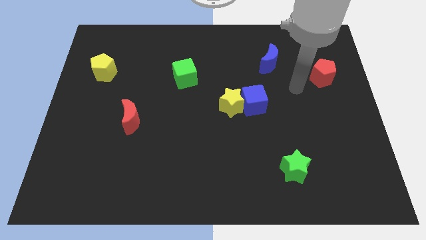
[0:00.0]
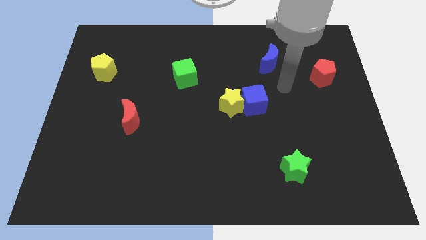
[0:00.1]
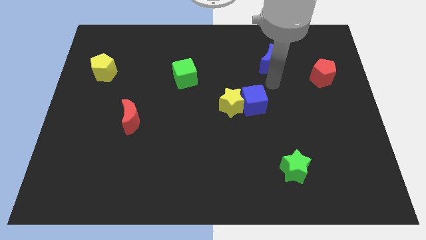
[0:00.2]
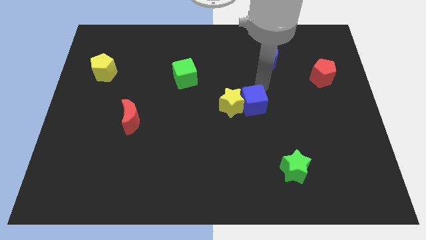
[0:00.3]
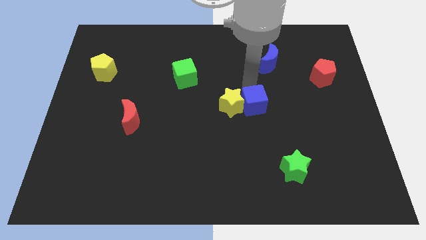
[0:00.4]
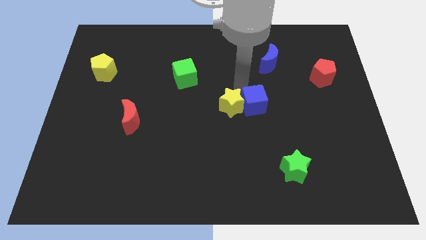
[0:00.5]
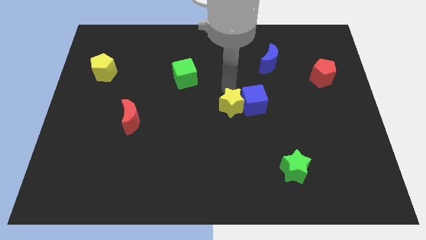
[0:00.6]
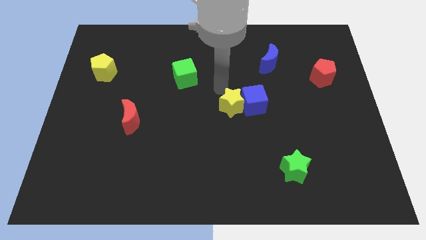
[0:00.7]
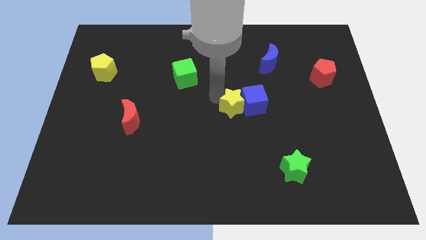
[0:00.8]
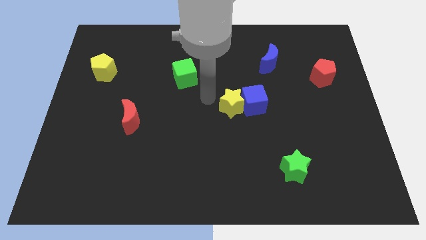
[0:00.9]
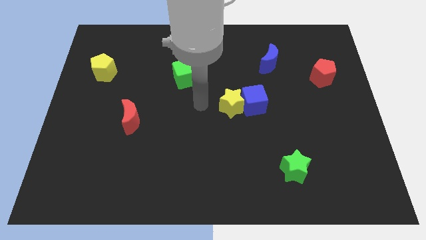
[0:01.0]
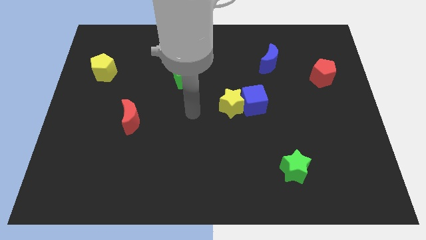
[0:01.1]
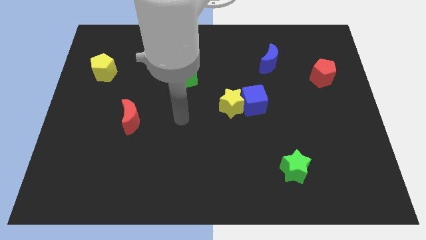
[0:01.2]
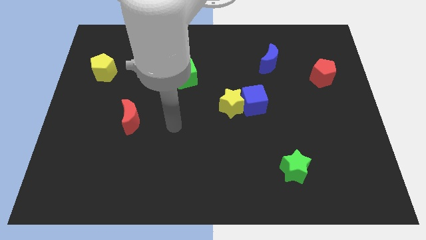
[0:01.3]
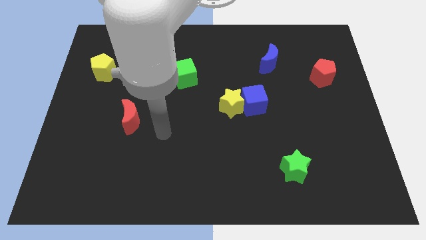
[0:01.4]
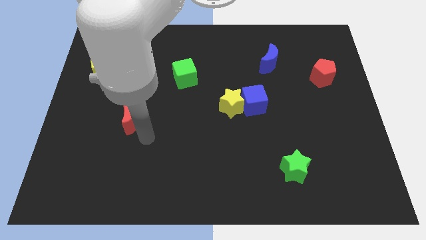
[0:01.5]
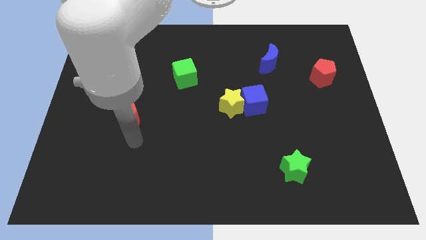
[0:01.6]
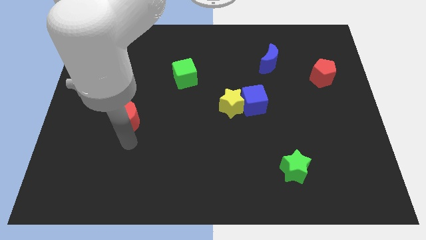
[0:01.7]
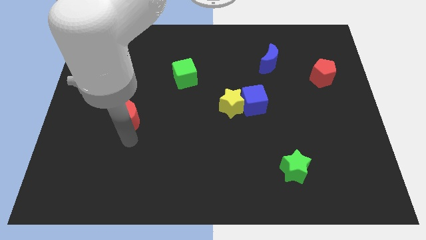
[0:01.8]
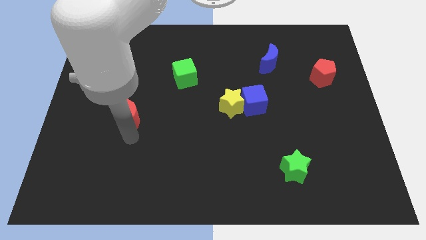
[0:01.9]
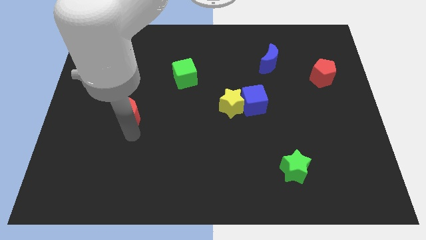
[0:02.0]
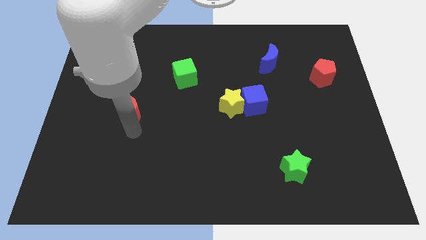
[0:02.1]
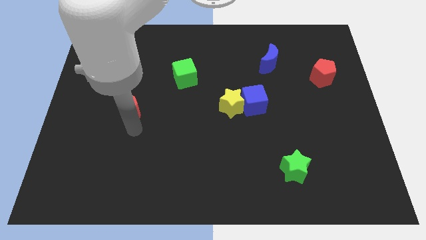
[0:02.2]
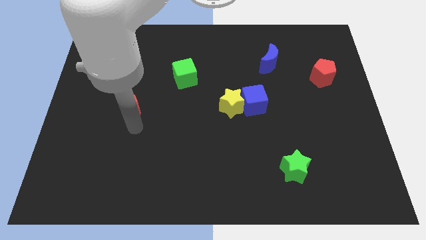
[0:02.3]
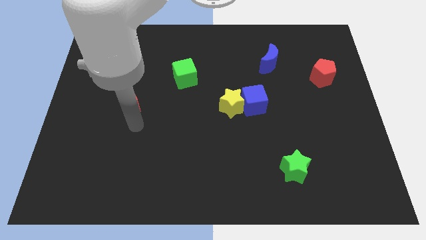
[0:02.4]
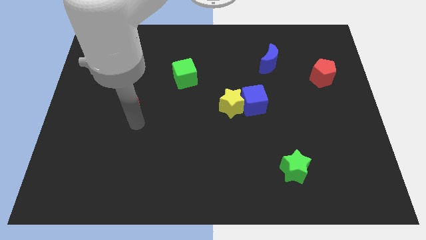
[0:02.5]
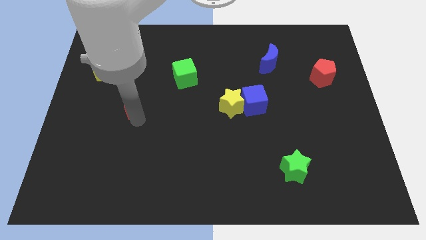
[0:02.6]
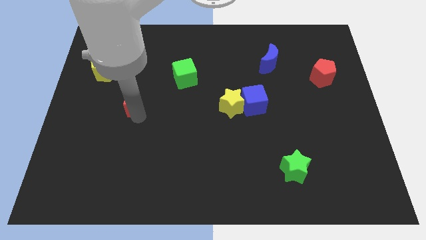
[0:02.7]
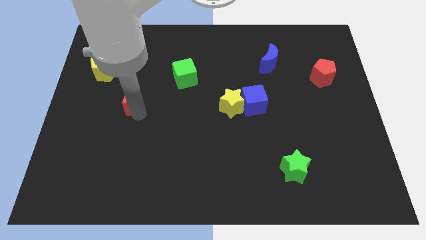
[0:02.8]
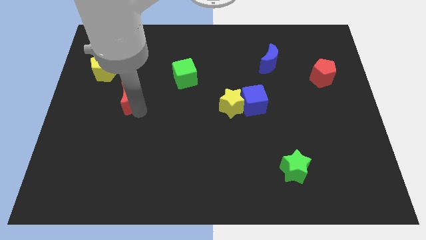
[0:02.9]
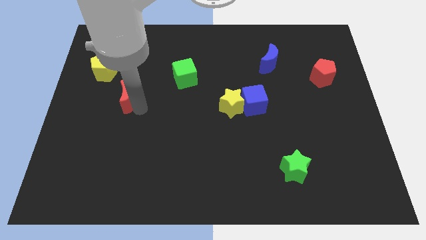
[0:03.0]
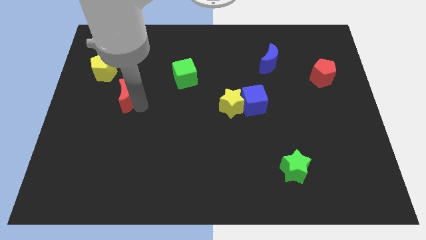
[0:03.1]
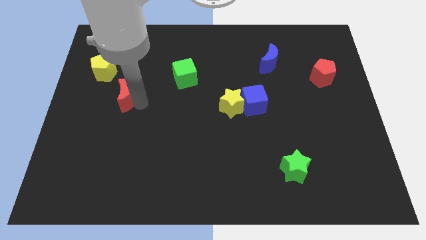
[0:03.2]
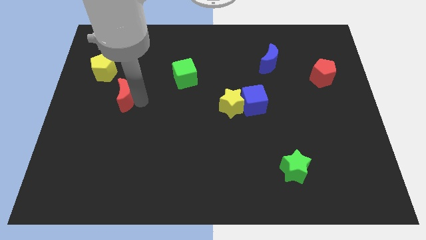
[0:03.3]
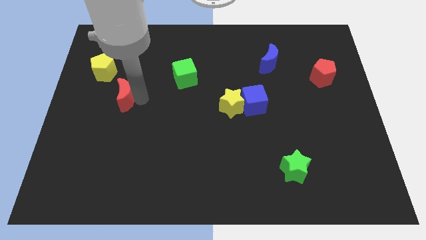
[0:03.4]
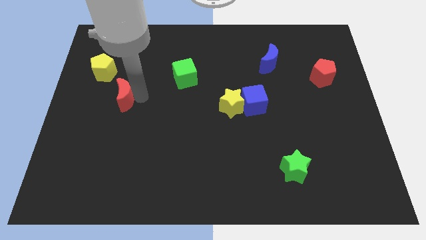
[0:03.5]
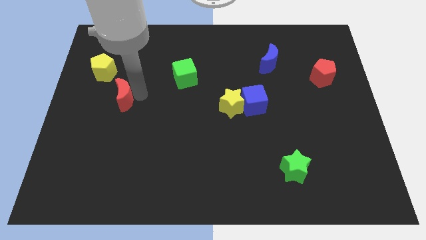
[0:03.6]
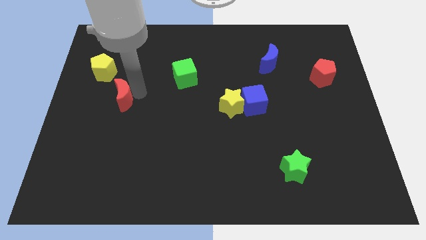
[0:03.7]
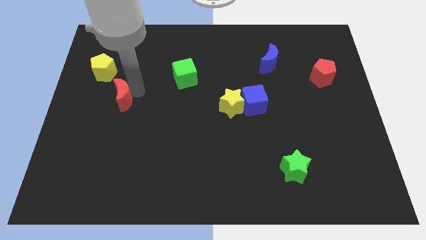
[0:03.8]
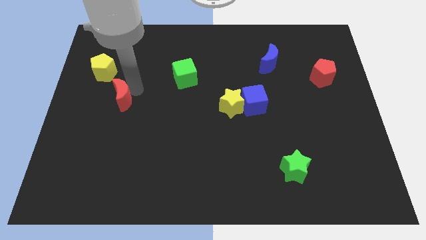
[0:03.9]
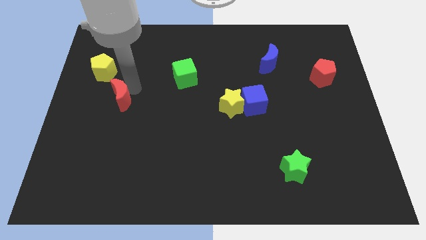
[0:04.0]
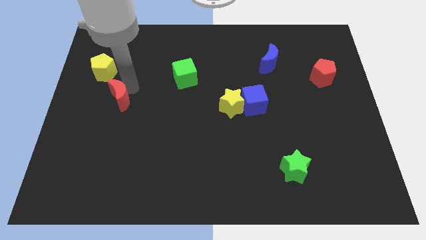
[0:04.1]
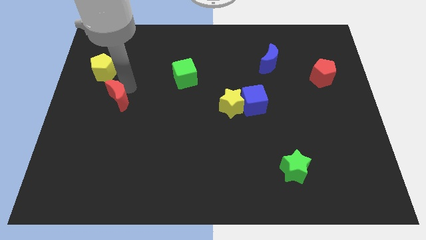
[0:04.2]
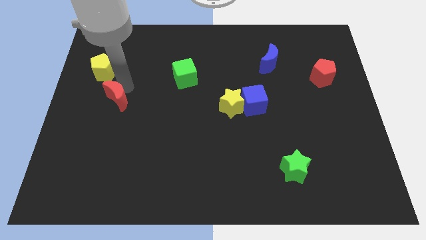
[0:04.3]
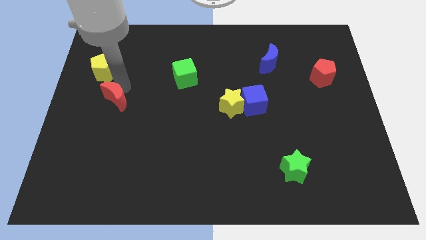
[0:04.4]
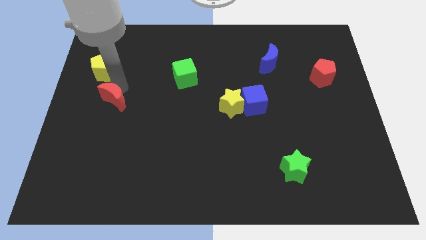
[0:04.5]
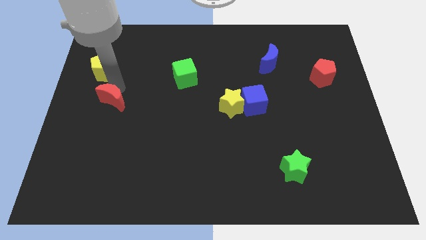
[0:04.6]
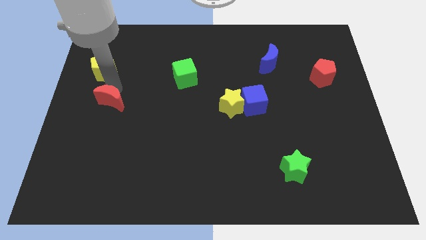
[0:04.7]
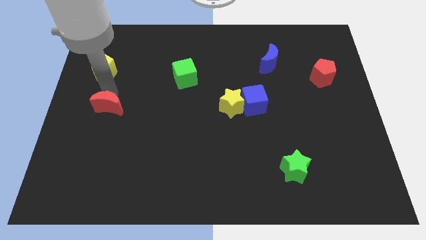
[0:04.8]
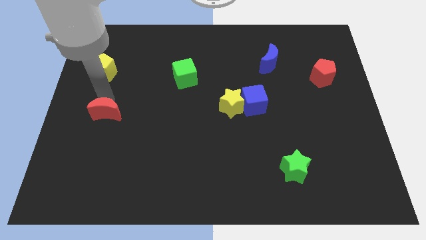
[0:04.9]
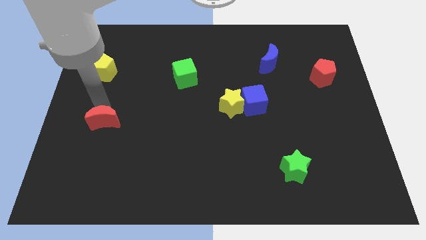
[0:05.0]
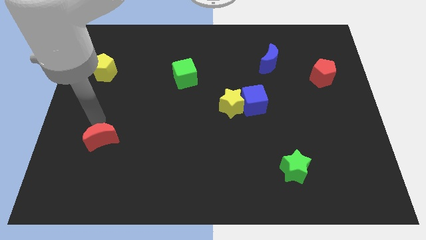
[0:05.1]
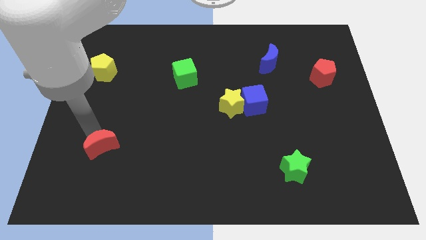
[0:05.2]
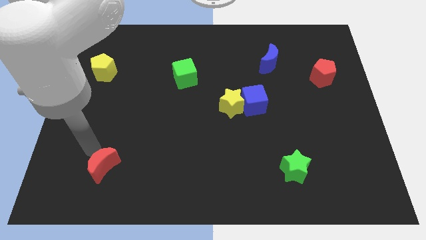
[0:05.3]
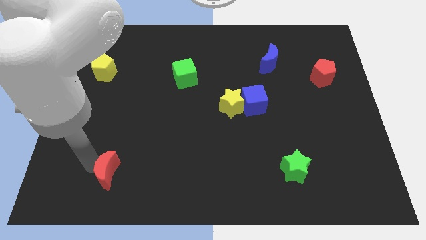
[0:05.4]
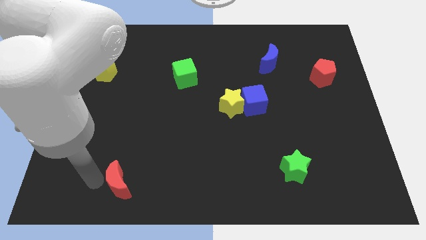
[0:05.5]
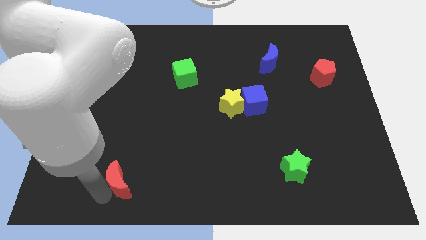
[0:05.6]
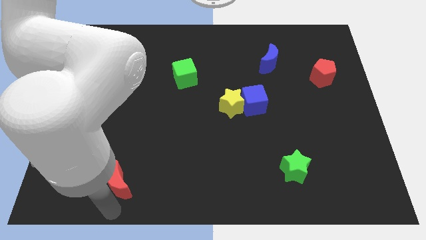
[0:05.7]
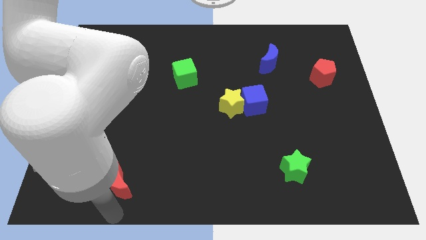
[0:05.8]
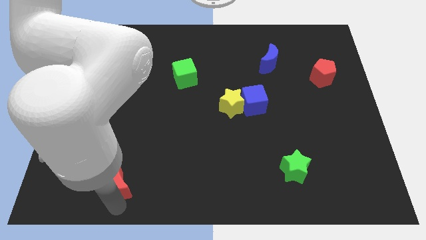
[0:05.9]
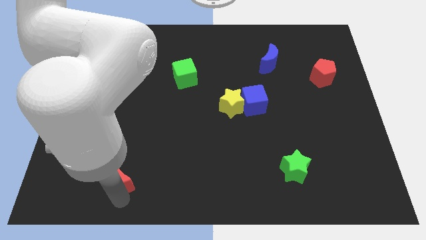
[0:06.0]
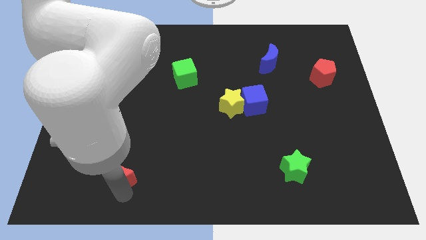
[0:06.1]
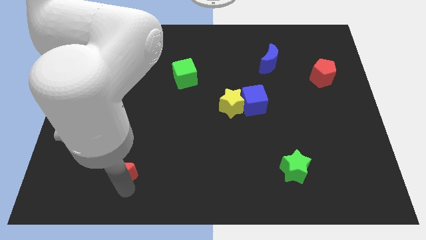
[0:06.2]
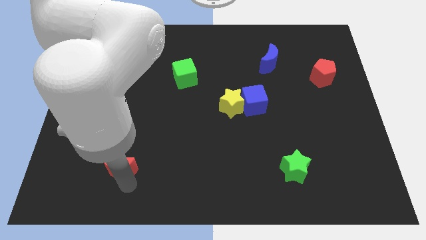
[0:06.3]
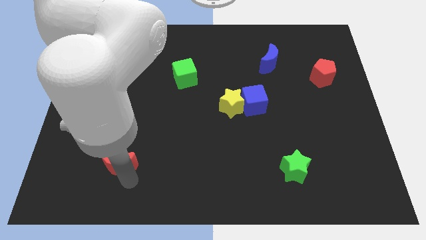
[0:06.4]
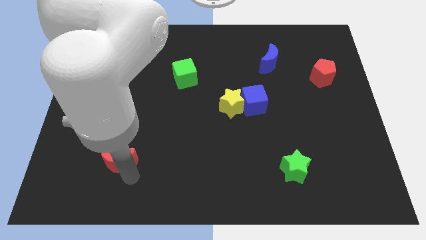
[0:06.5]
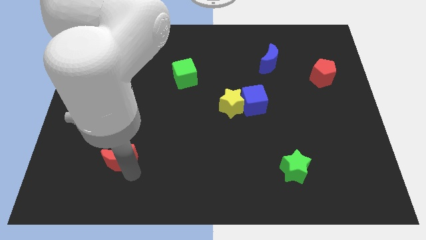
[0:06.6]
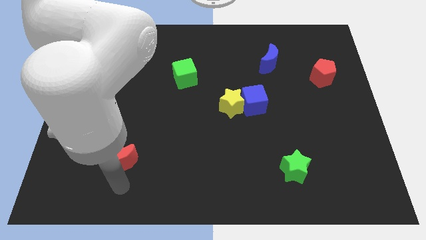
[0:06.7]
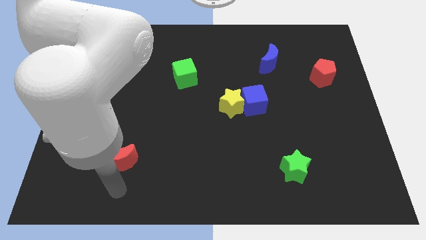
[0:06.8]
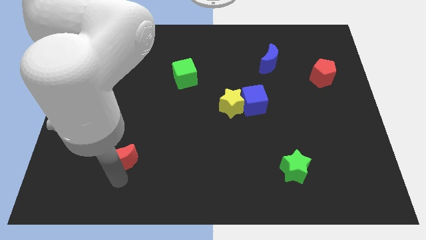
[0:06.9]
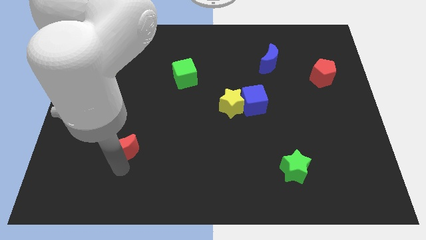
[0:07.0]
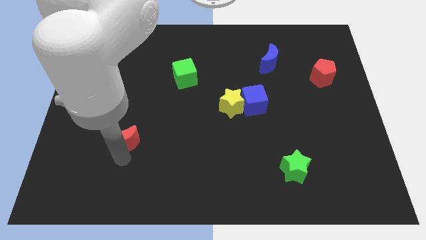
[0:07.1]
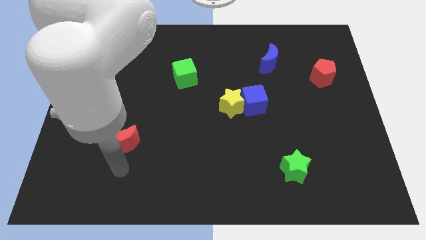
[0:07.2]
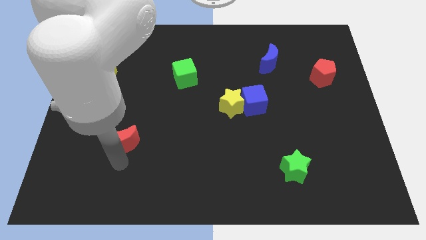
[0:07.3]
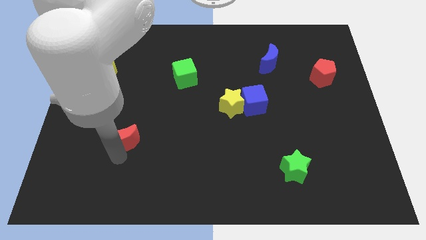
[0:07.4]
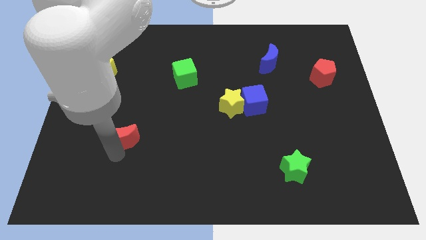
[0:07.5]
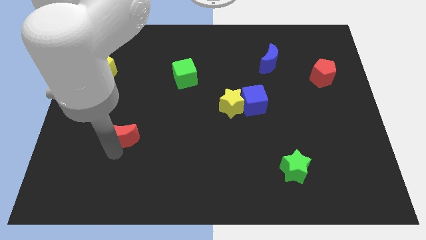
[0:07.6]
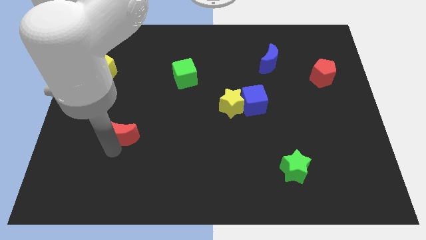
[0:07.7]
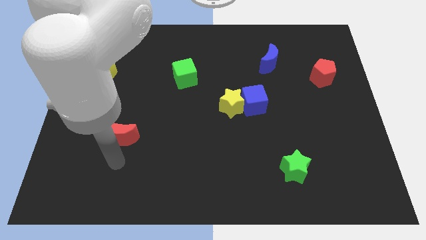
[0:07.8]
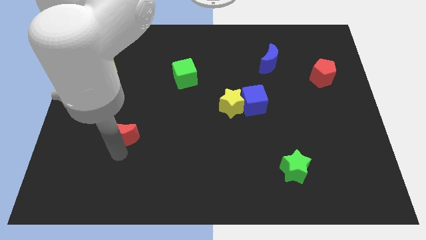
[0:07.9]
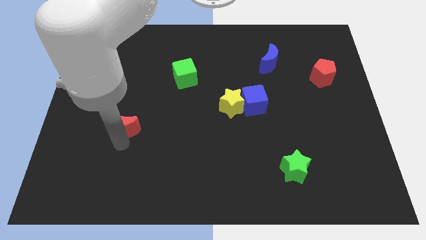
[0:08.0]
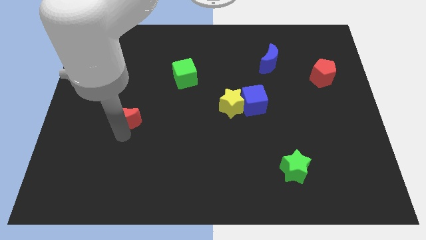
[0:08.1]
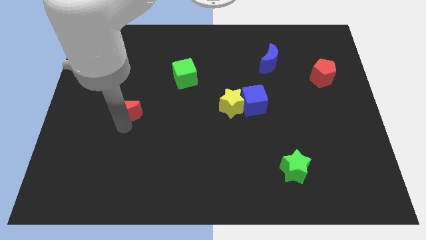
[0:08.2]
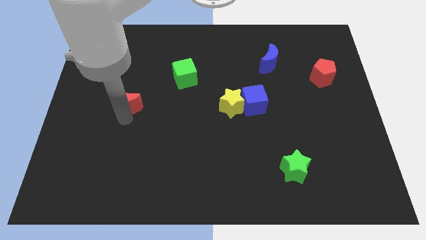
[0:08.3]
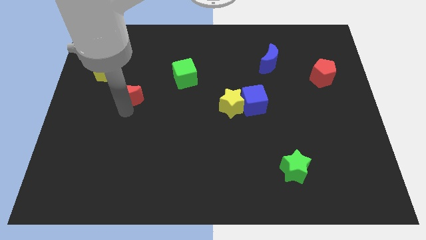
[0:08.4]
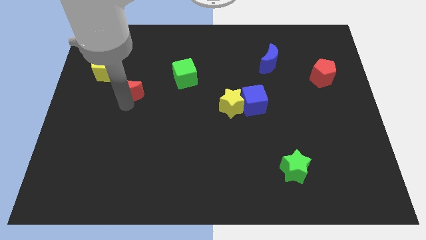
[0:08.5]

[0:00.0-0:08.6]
slide the red moon somewhat upwards
